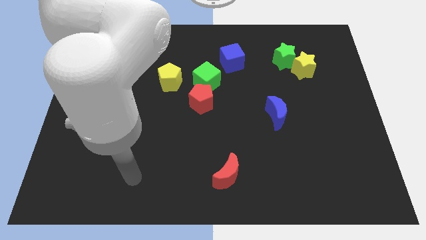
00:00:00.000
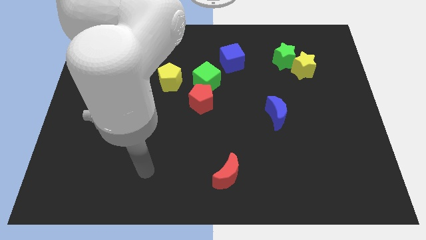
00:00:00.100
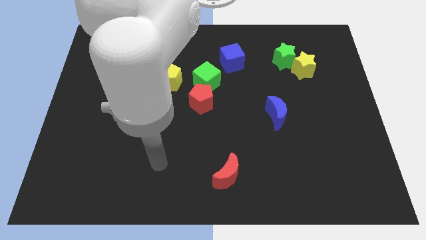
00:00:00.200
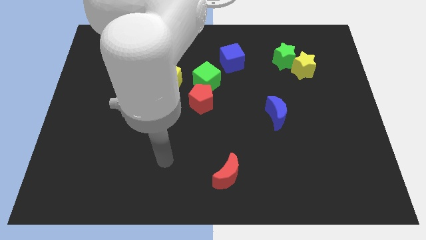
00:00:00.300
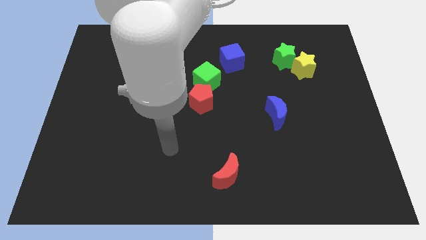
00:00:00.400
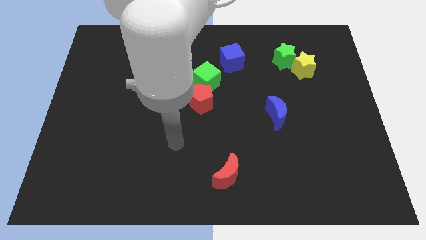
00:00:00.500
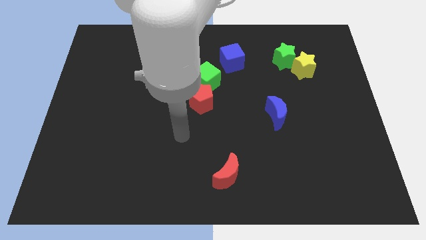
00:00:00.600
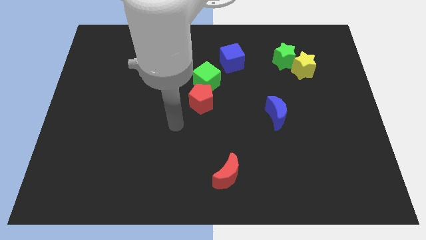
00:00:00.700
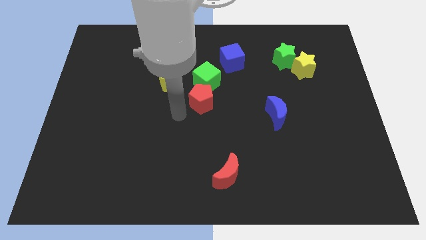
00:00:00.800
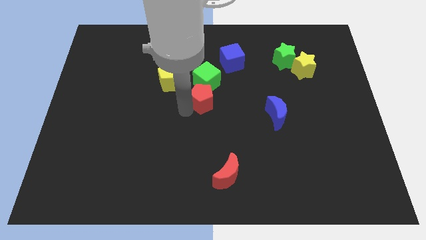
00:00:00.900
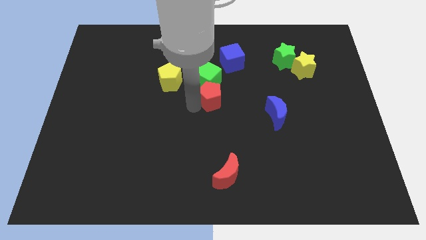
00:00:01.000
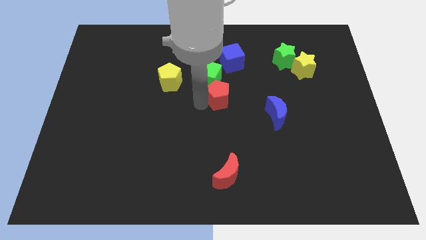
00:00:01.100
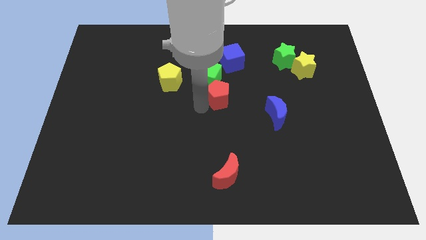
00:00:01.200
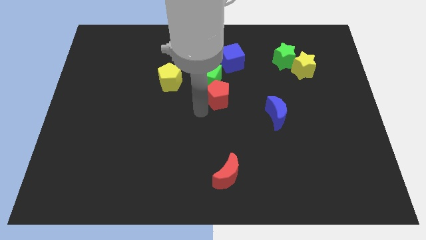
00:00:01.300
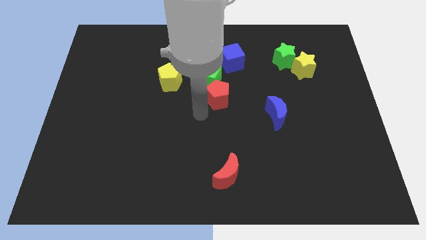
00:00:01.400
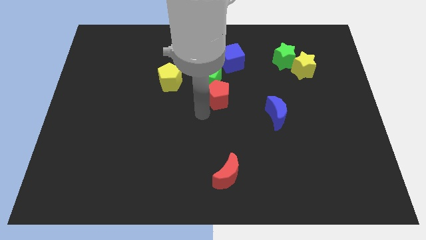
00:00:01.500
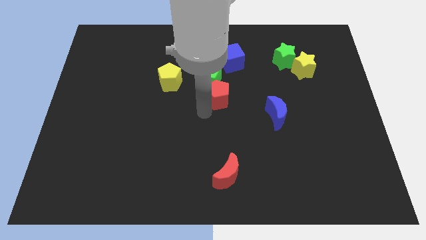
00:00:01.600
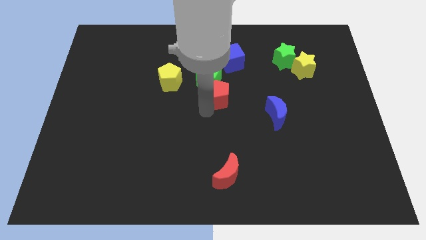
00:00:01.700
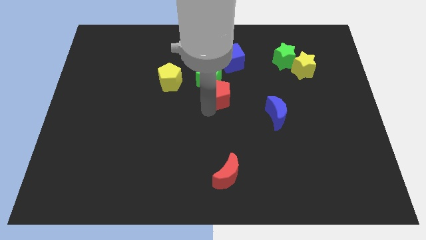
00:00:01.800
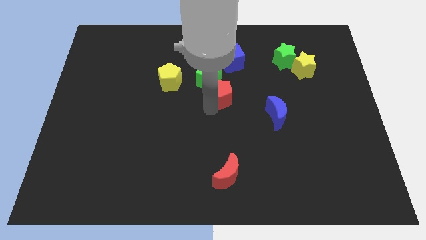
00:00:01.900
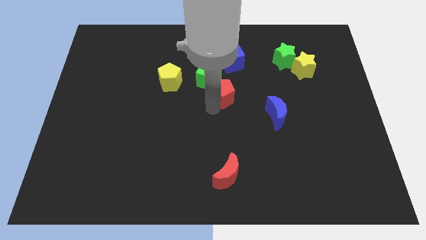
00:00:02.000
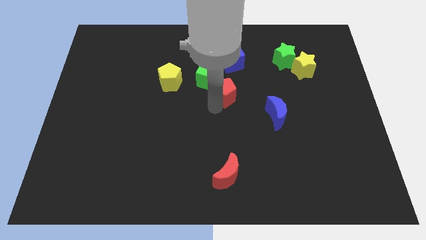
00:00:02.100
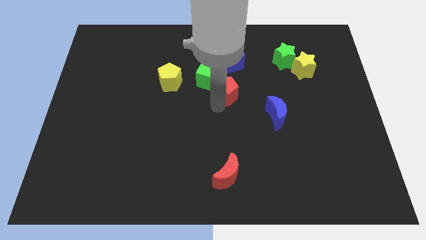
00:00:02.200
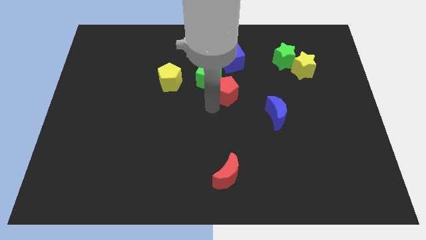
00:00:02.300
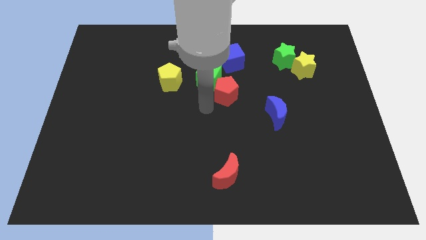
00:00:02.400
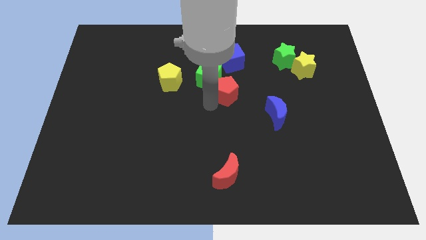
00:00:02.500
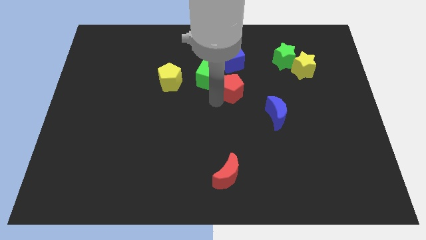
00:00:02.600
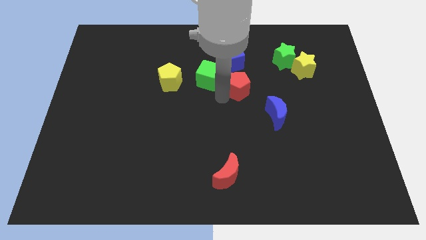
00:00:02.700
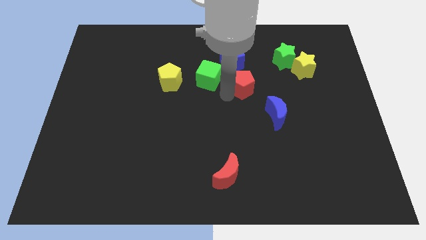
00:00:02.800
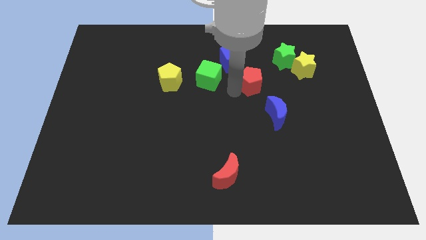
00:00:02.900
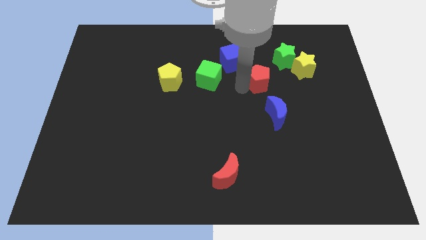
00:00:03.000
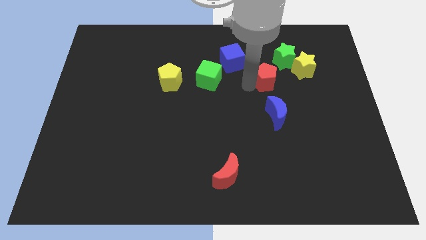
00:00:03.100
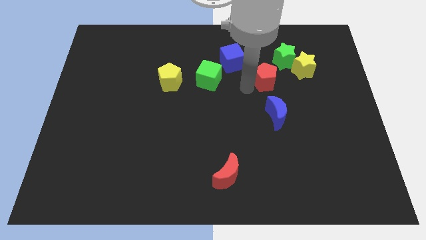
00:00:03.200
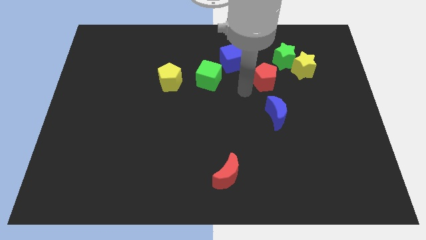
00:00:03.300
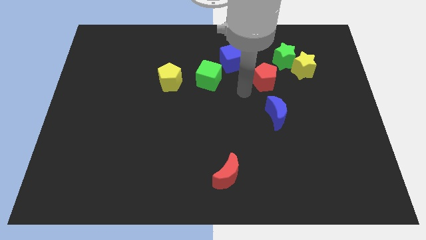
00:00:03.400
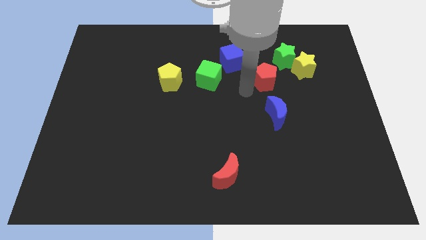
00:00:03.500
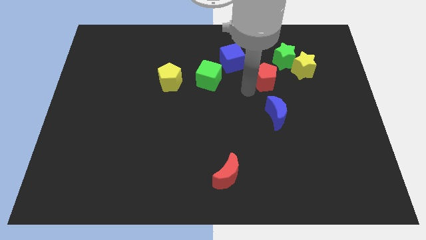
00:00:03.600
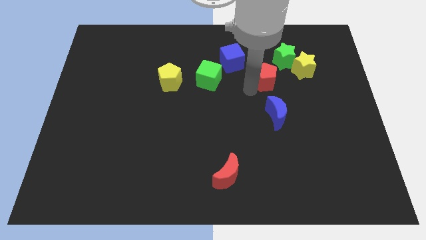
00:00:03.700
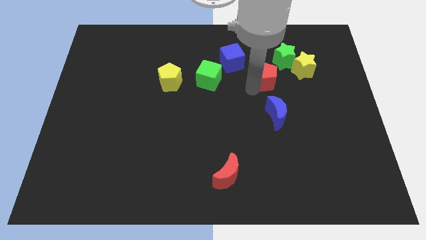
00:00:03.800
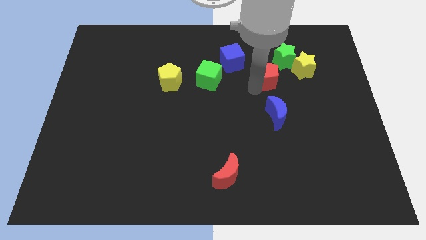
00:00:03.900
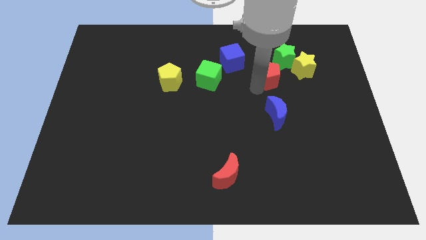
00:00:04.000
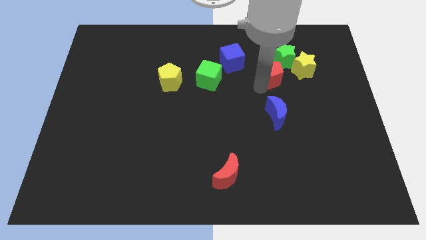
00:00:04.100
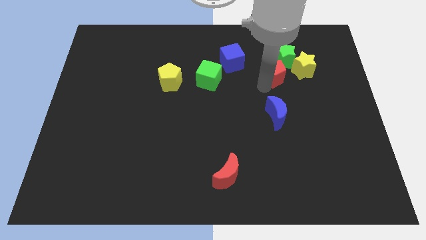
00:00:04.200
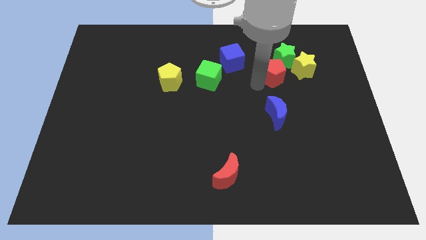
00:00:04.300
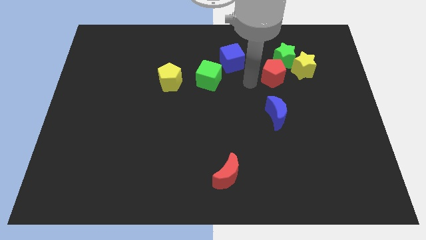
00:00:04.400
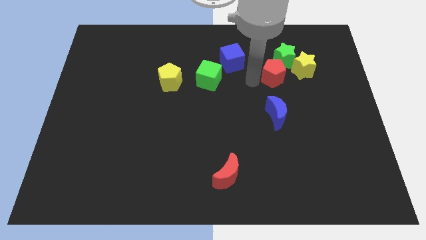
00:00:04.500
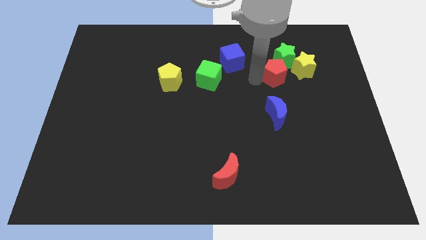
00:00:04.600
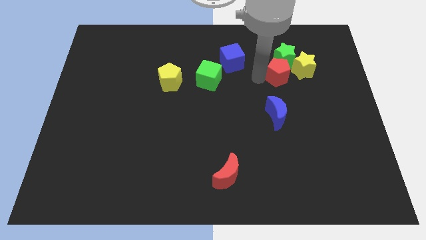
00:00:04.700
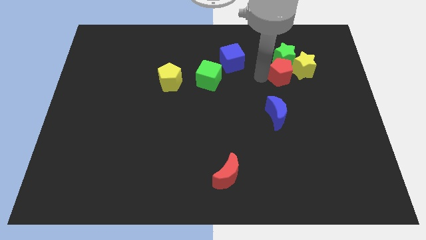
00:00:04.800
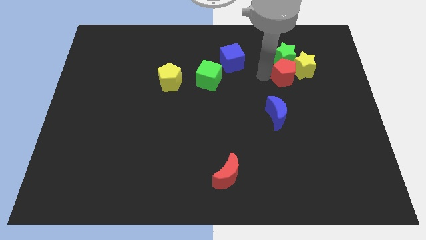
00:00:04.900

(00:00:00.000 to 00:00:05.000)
slide the red pentagon next to the yellow star

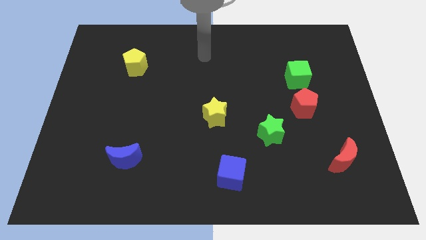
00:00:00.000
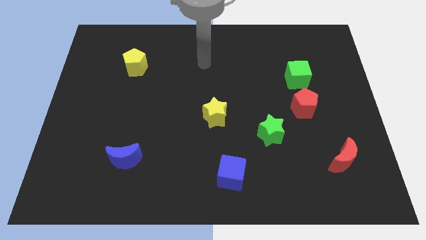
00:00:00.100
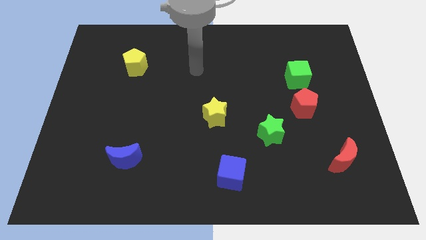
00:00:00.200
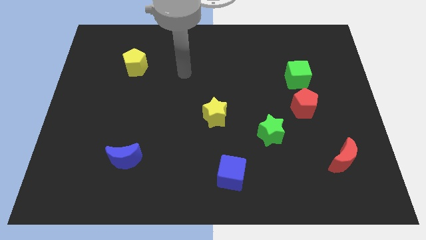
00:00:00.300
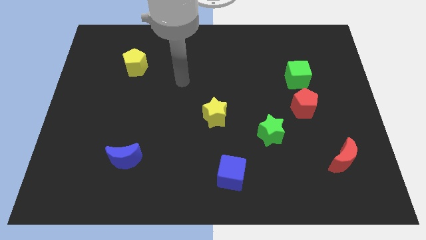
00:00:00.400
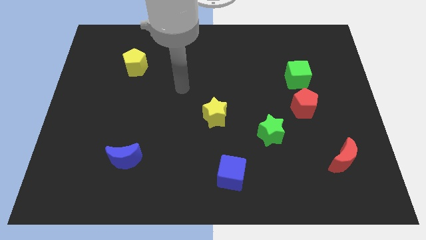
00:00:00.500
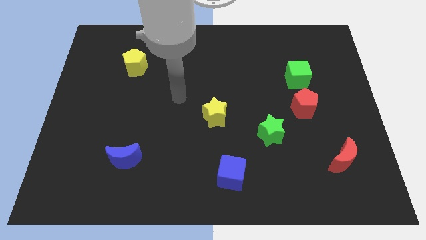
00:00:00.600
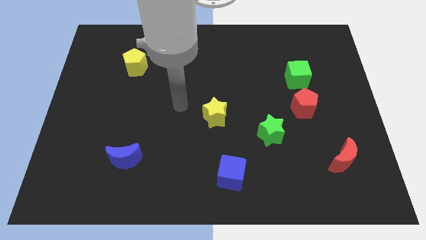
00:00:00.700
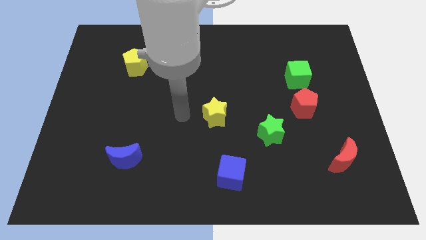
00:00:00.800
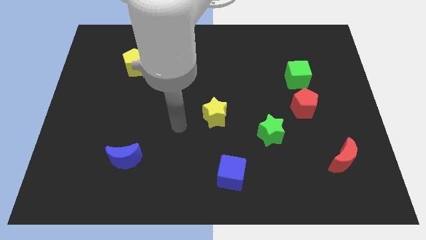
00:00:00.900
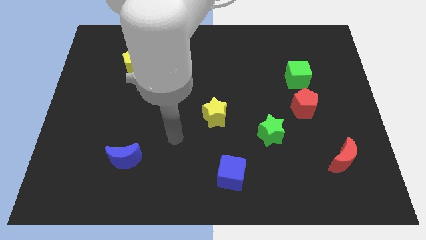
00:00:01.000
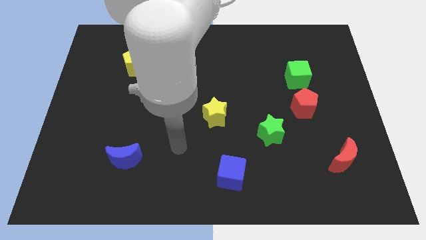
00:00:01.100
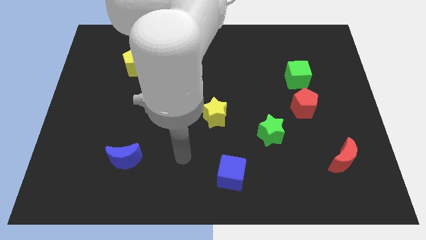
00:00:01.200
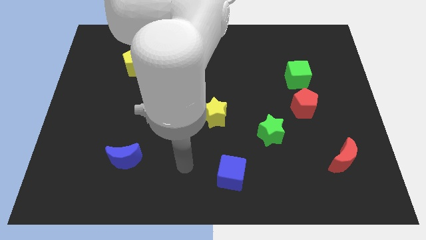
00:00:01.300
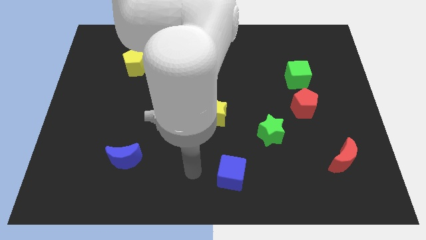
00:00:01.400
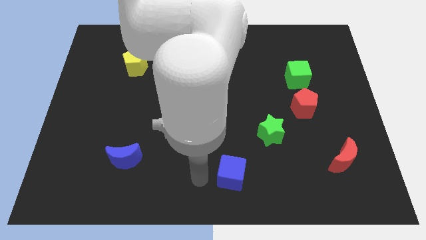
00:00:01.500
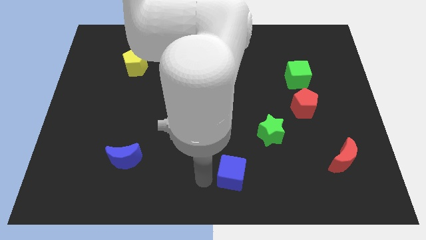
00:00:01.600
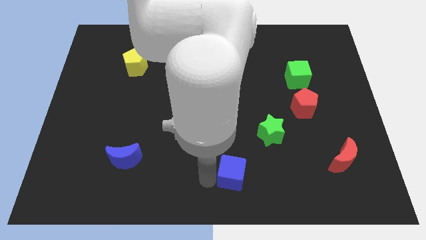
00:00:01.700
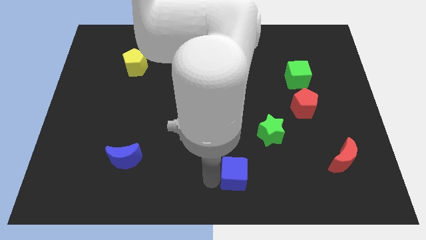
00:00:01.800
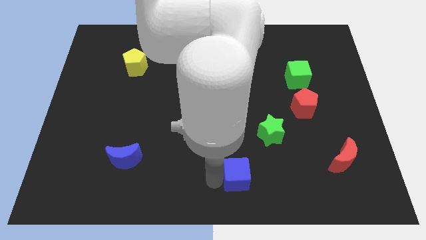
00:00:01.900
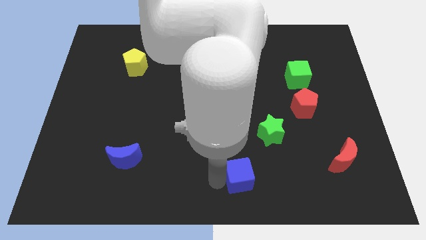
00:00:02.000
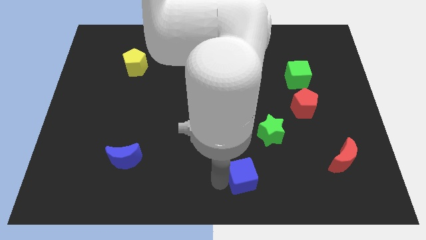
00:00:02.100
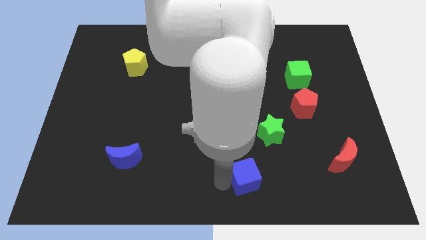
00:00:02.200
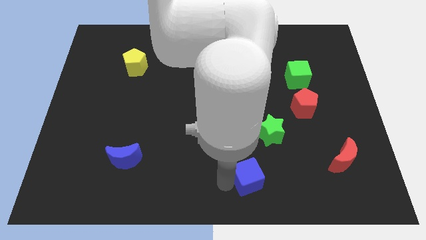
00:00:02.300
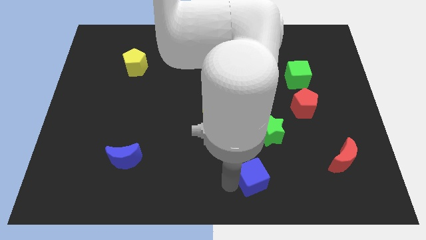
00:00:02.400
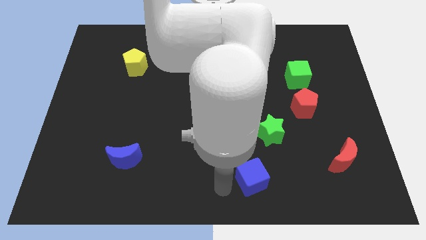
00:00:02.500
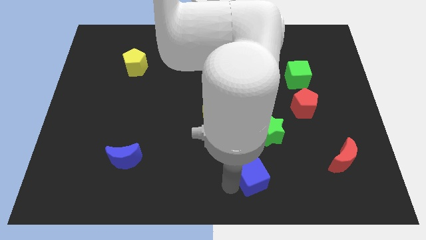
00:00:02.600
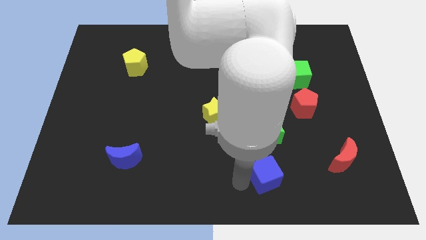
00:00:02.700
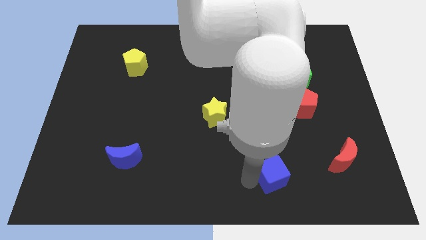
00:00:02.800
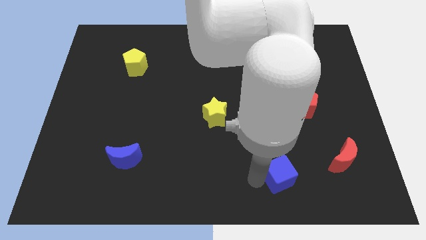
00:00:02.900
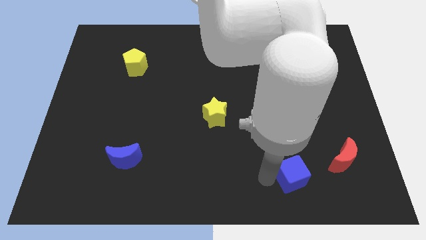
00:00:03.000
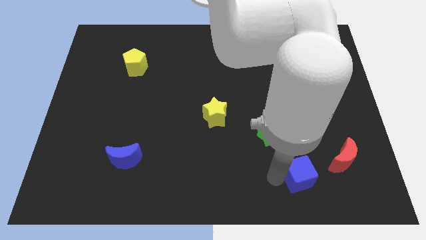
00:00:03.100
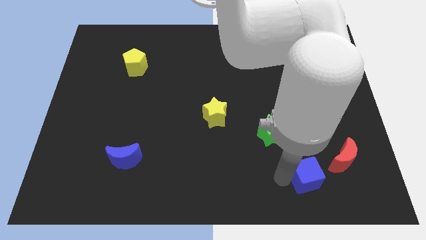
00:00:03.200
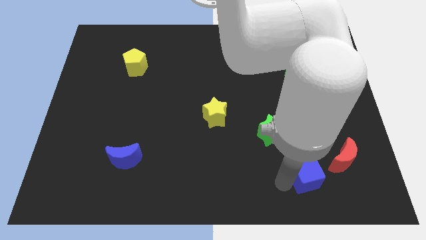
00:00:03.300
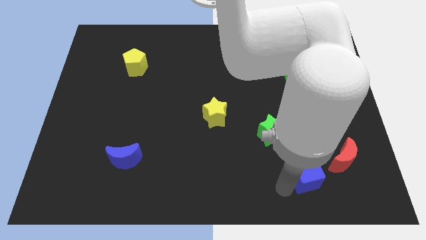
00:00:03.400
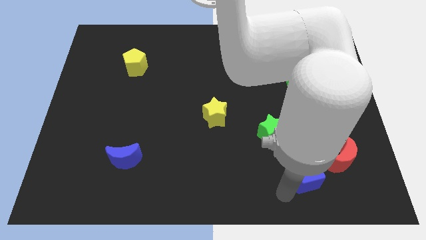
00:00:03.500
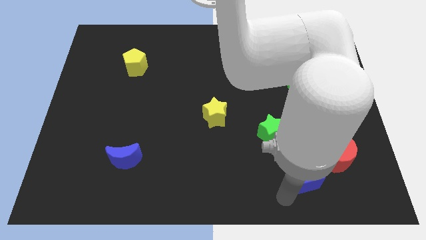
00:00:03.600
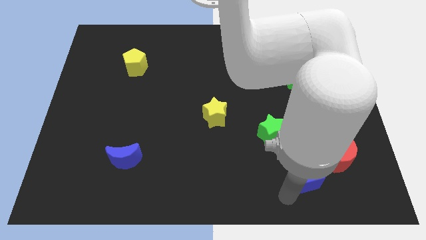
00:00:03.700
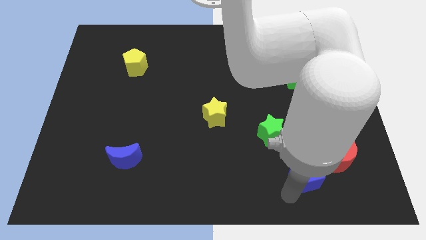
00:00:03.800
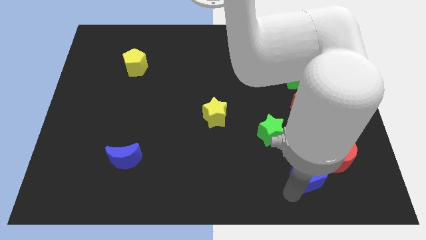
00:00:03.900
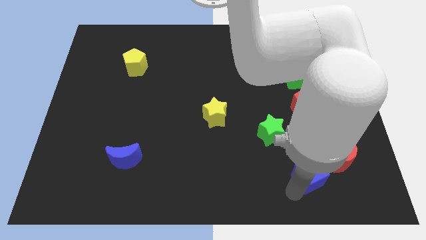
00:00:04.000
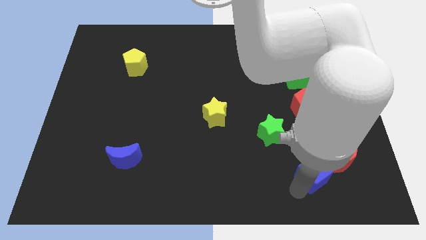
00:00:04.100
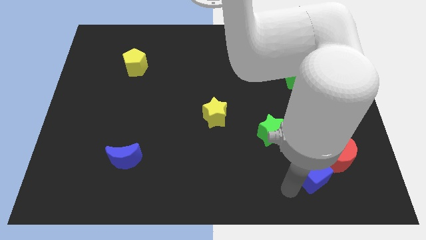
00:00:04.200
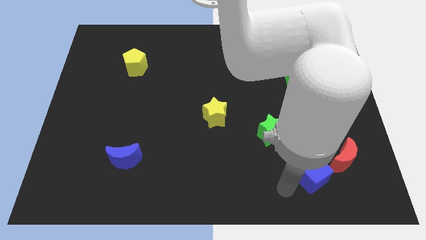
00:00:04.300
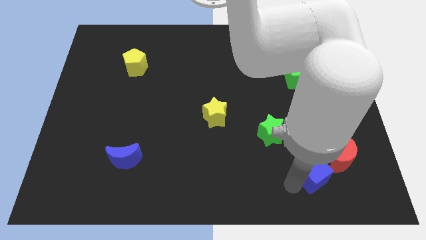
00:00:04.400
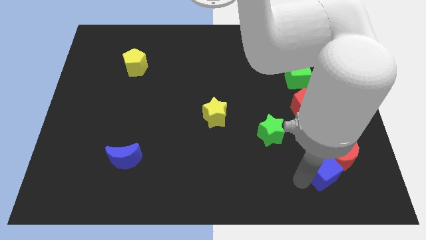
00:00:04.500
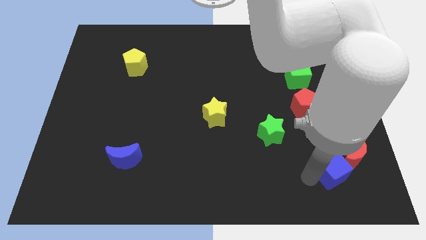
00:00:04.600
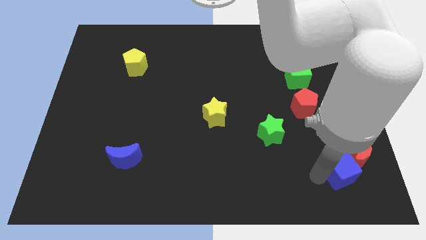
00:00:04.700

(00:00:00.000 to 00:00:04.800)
move the blue cube to the red moon
